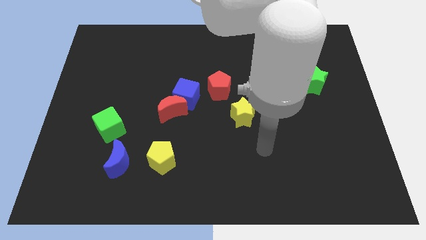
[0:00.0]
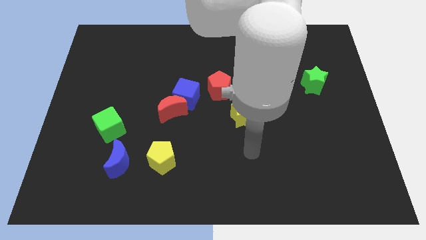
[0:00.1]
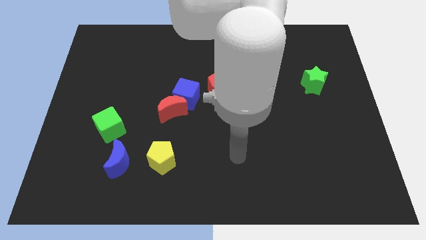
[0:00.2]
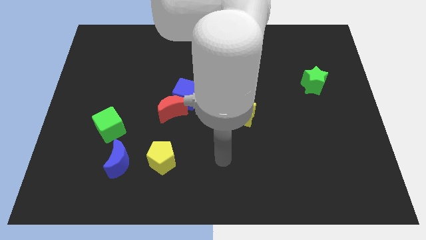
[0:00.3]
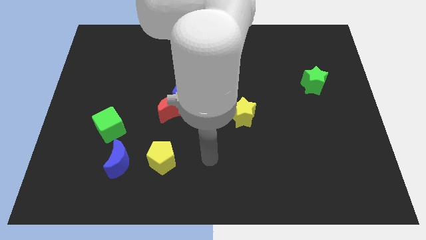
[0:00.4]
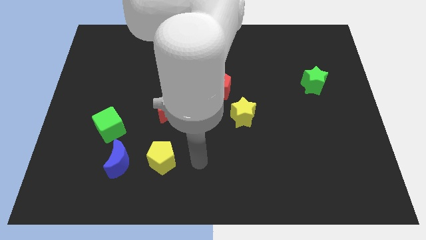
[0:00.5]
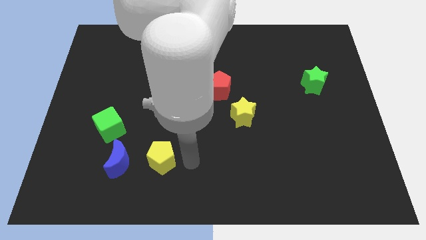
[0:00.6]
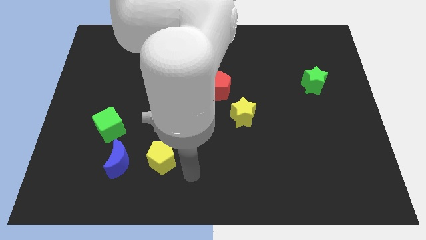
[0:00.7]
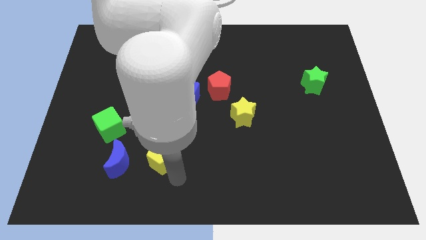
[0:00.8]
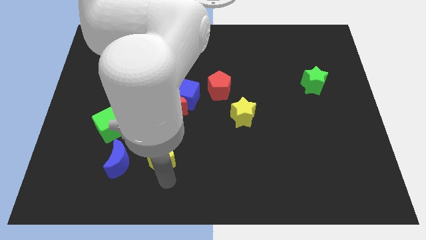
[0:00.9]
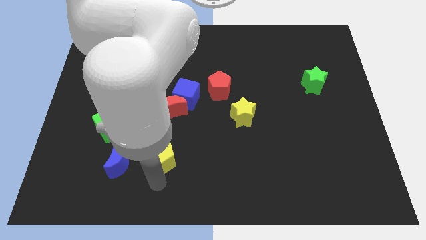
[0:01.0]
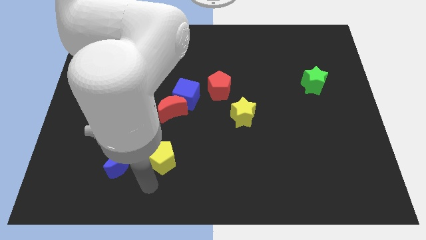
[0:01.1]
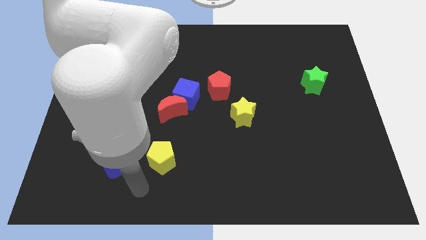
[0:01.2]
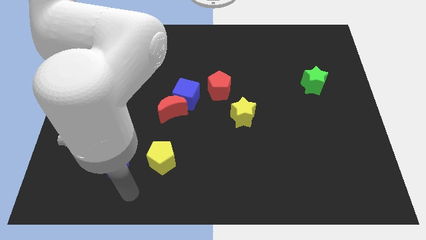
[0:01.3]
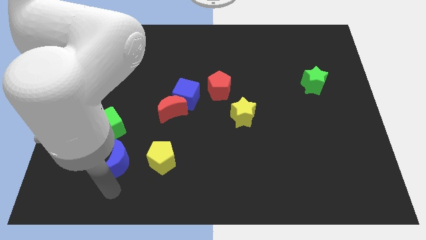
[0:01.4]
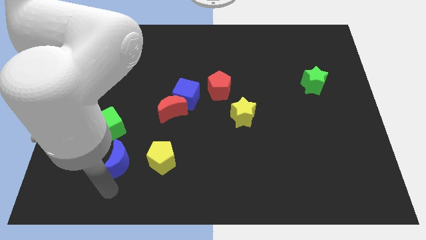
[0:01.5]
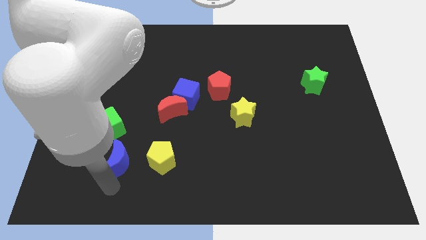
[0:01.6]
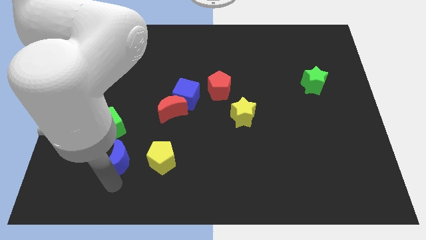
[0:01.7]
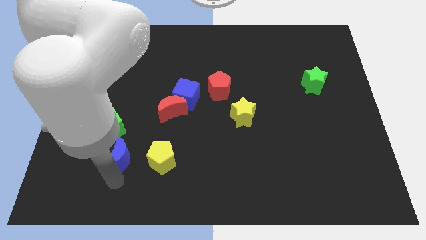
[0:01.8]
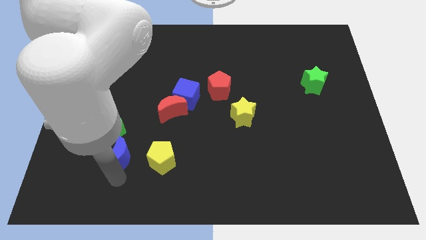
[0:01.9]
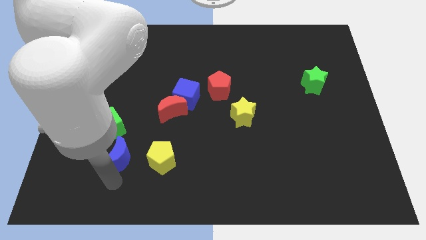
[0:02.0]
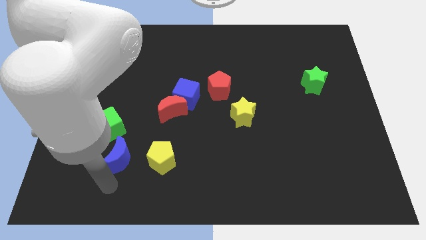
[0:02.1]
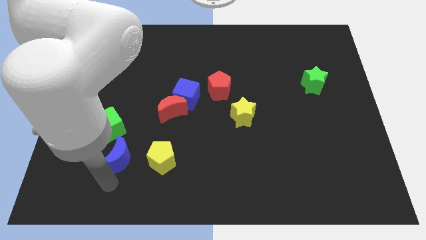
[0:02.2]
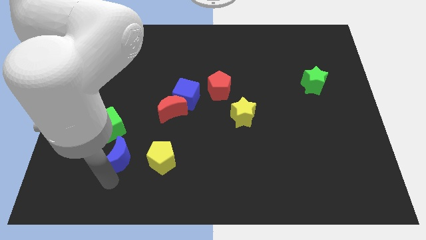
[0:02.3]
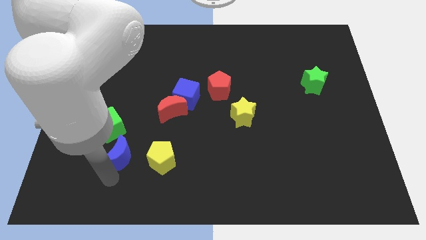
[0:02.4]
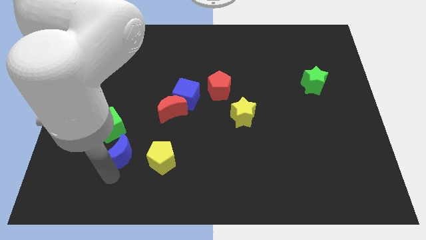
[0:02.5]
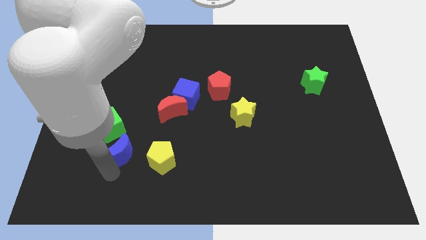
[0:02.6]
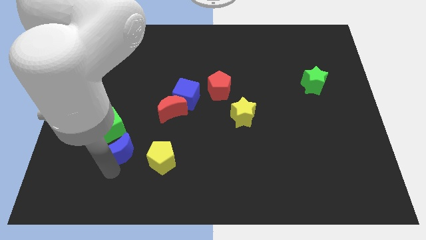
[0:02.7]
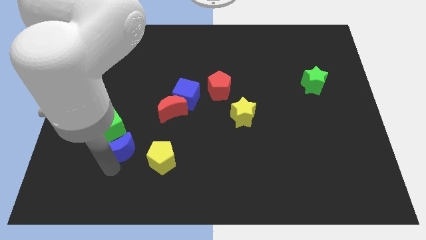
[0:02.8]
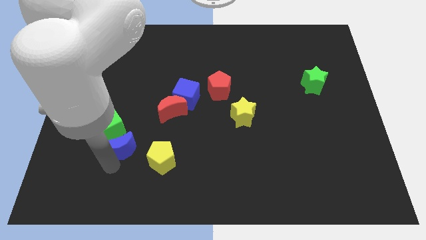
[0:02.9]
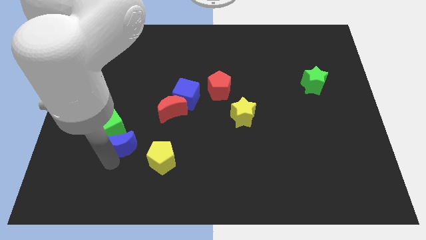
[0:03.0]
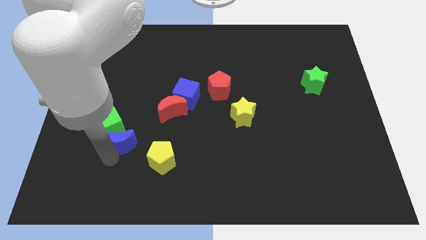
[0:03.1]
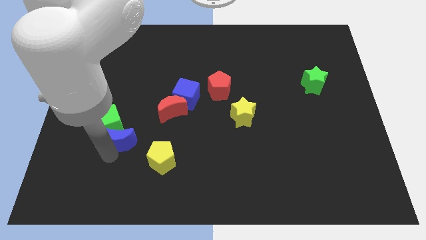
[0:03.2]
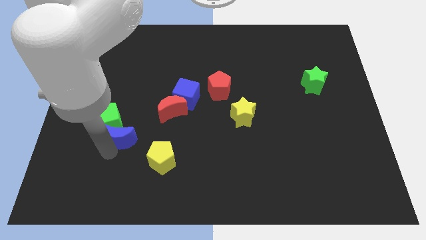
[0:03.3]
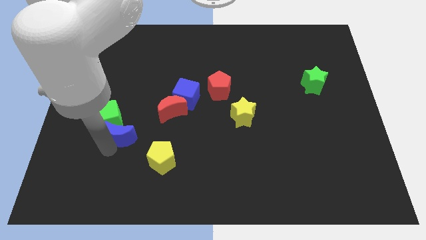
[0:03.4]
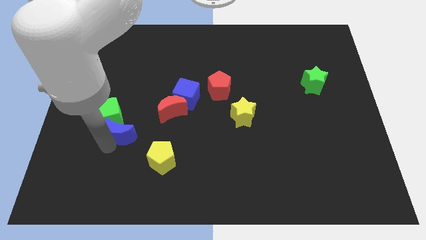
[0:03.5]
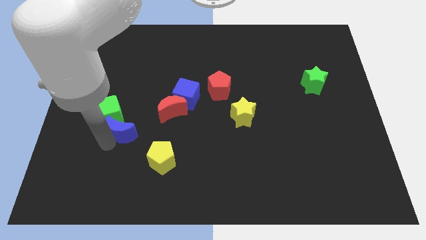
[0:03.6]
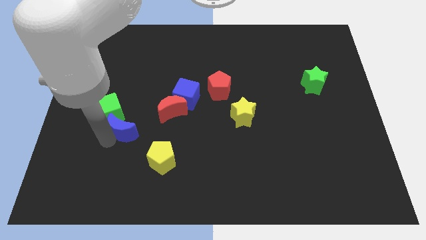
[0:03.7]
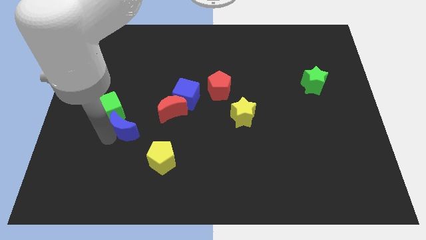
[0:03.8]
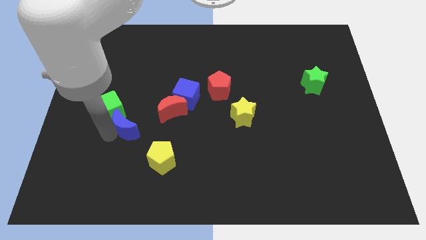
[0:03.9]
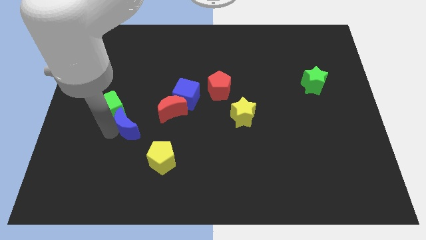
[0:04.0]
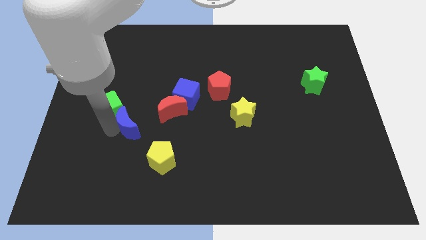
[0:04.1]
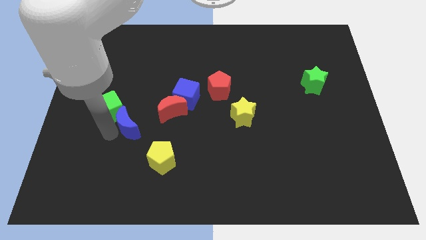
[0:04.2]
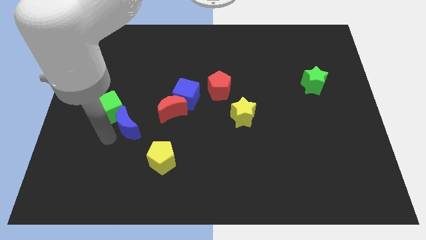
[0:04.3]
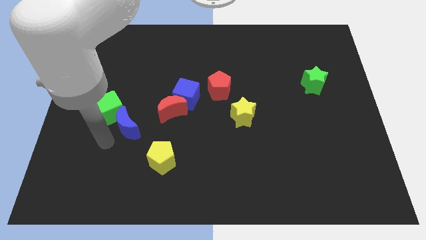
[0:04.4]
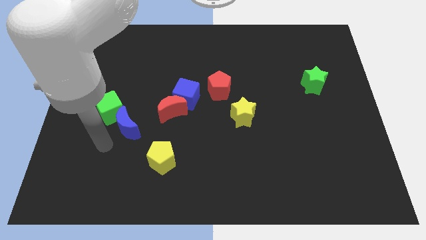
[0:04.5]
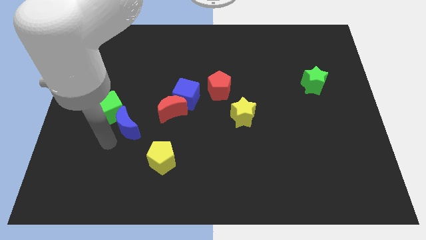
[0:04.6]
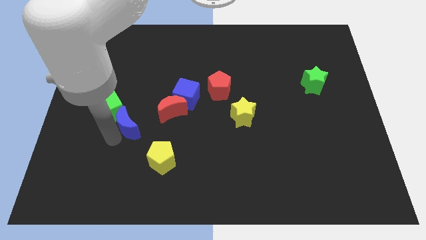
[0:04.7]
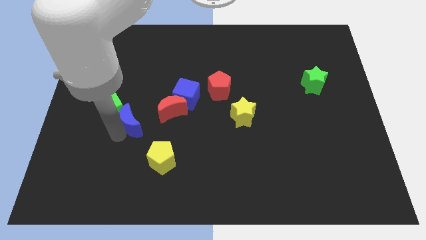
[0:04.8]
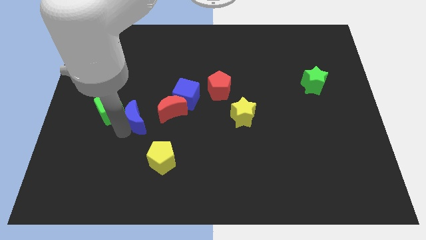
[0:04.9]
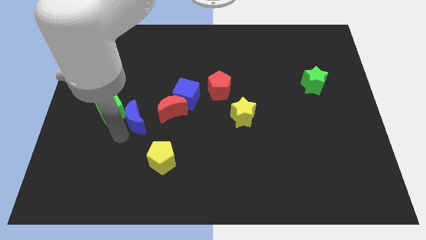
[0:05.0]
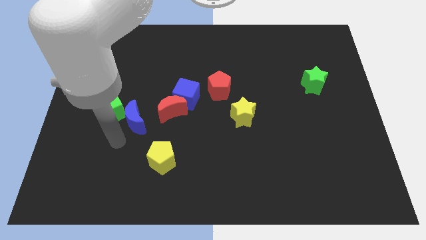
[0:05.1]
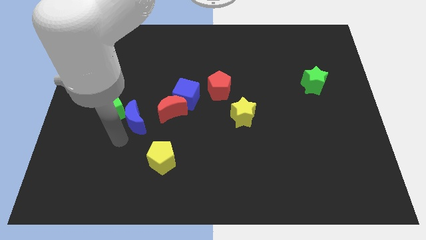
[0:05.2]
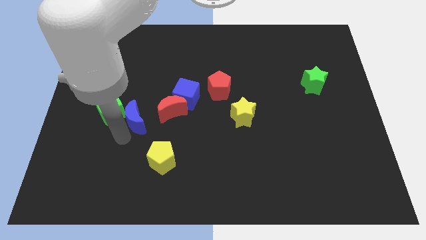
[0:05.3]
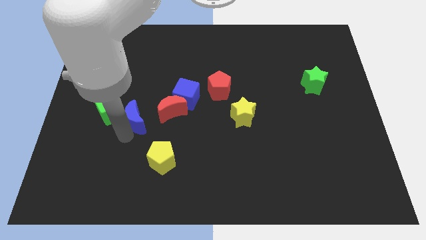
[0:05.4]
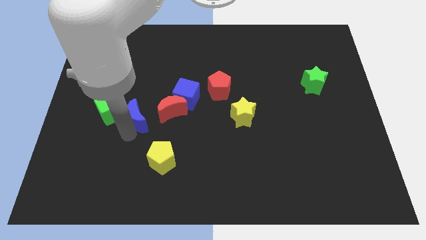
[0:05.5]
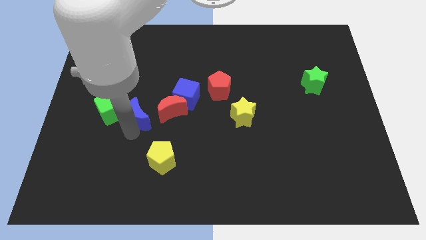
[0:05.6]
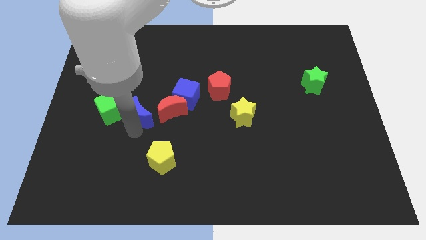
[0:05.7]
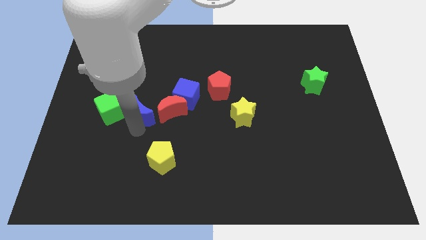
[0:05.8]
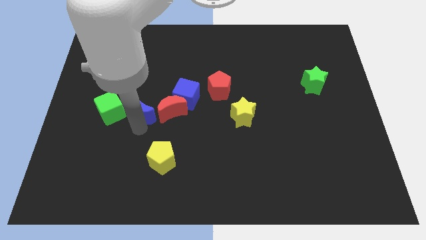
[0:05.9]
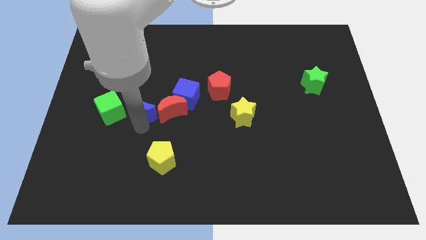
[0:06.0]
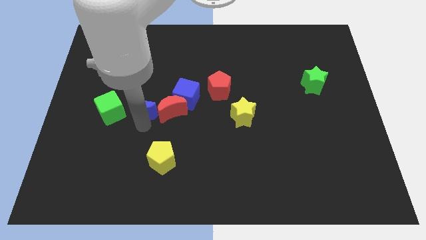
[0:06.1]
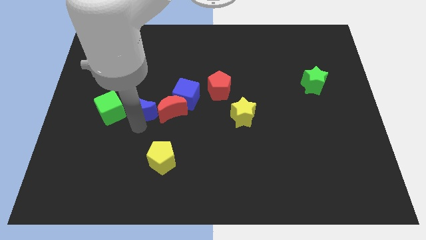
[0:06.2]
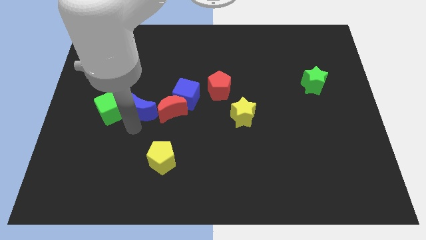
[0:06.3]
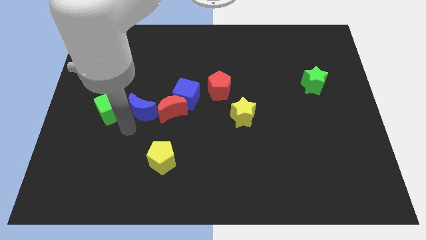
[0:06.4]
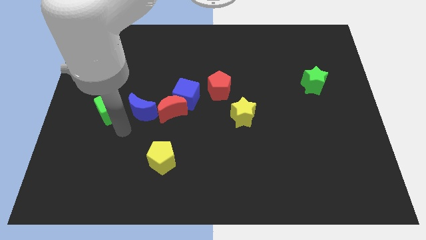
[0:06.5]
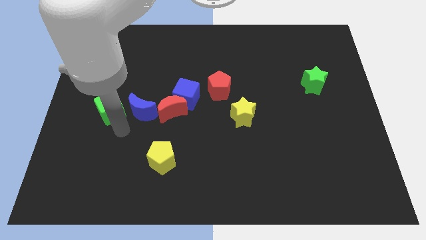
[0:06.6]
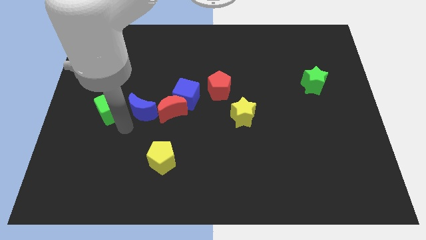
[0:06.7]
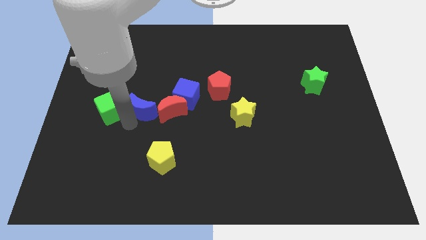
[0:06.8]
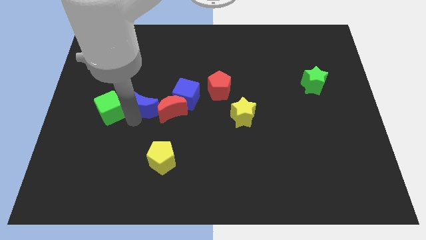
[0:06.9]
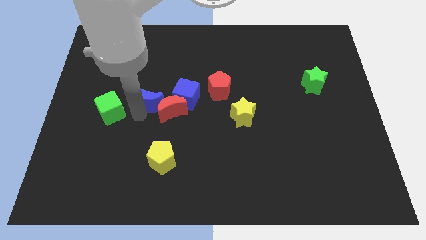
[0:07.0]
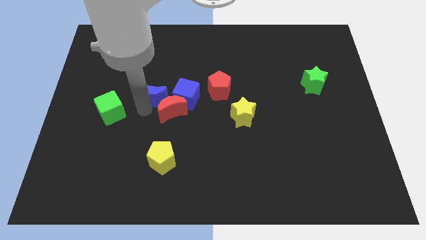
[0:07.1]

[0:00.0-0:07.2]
move the blue moon above the red moon
